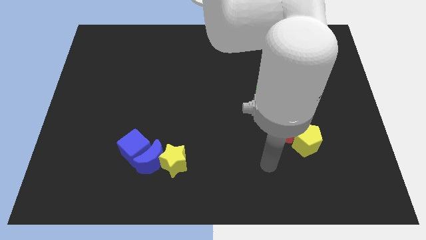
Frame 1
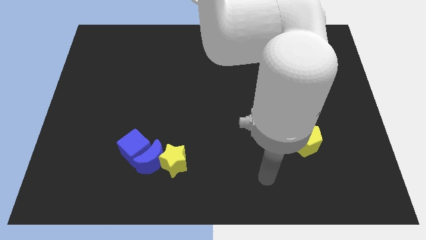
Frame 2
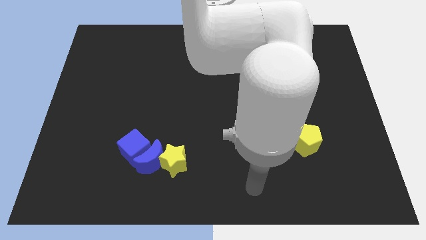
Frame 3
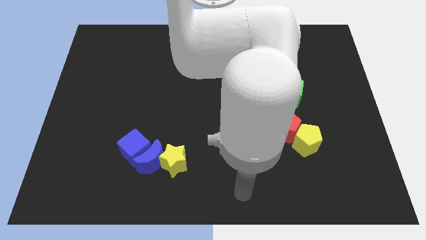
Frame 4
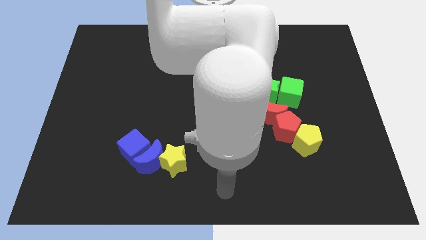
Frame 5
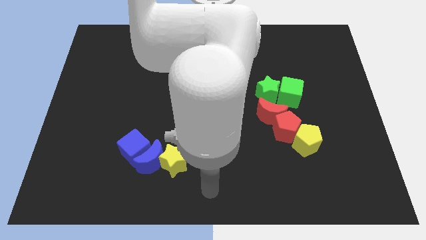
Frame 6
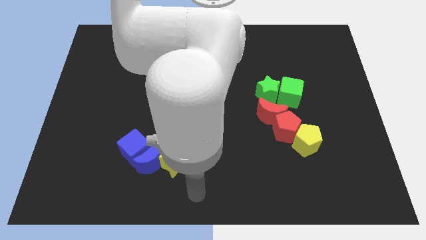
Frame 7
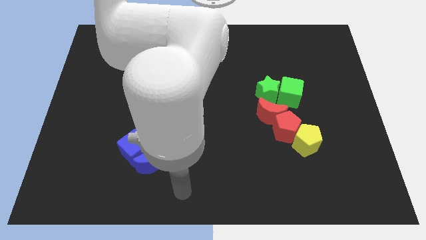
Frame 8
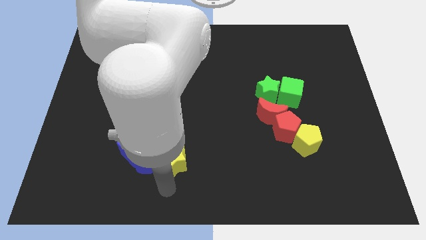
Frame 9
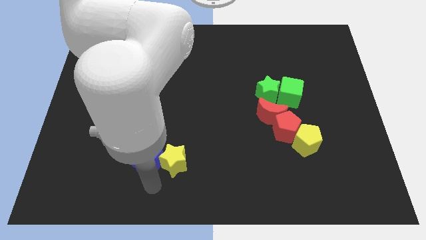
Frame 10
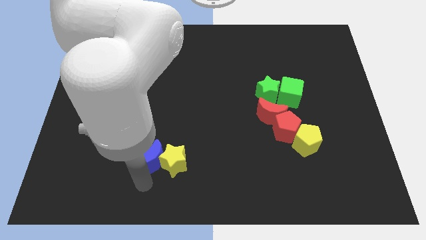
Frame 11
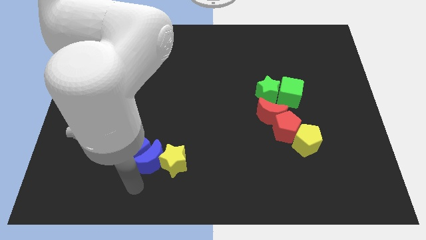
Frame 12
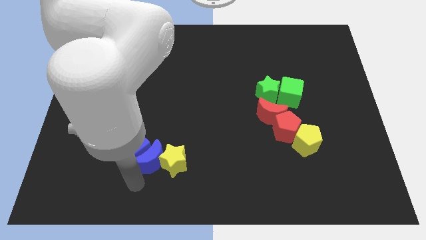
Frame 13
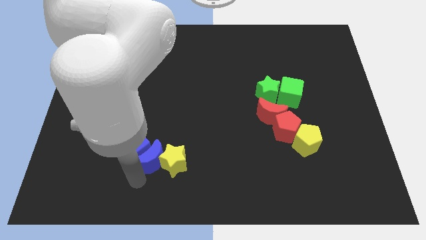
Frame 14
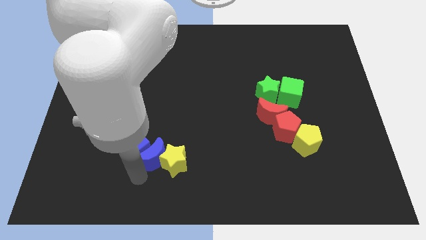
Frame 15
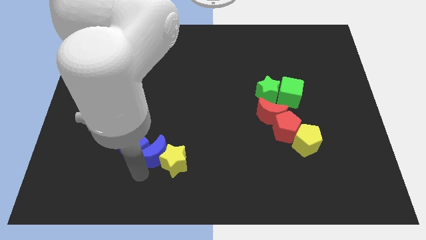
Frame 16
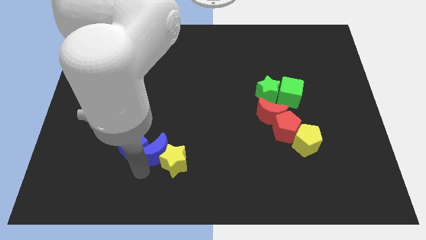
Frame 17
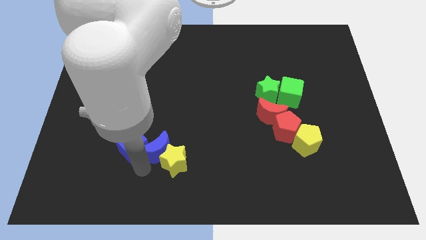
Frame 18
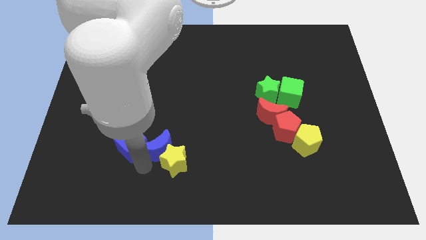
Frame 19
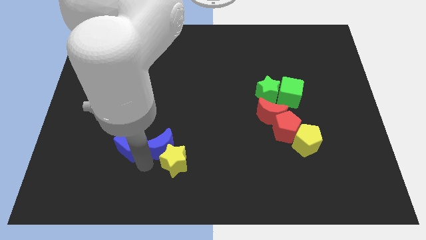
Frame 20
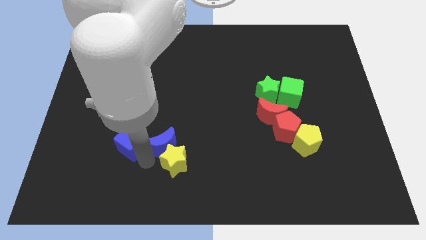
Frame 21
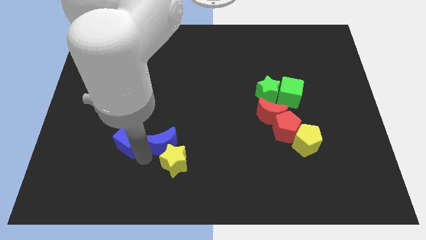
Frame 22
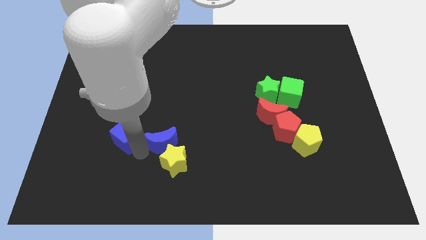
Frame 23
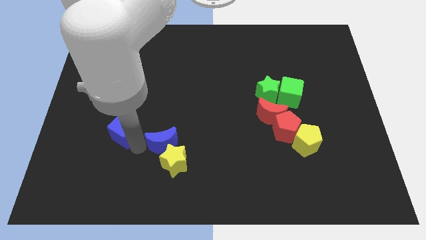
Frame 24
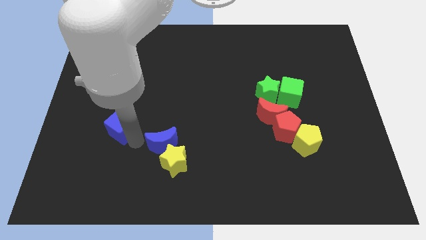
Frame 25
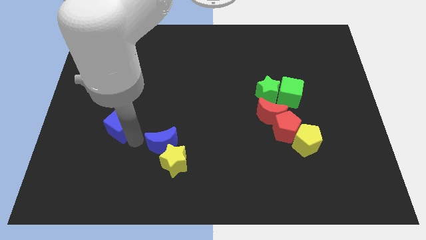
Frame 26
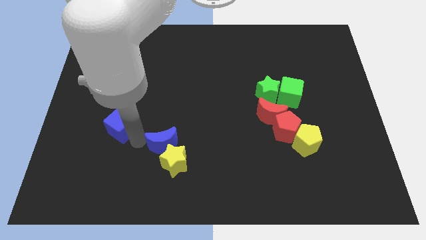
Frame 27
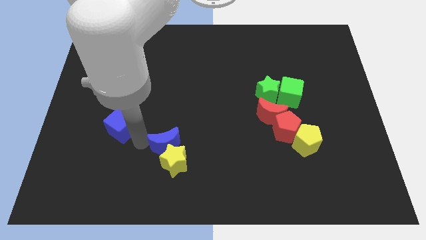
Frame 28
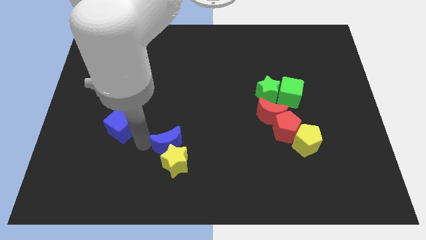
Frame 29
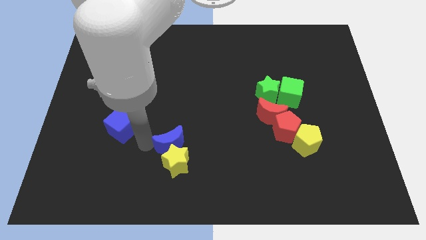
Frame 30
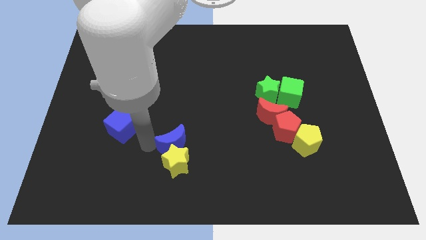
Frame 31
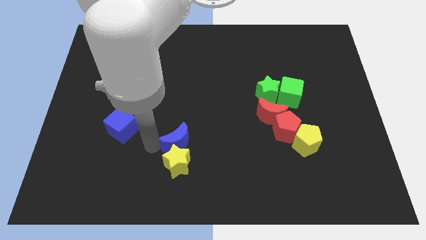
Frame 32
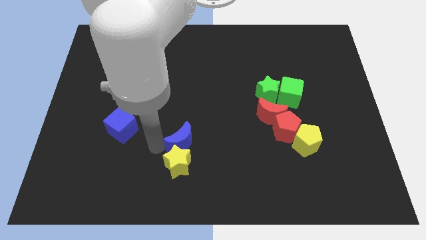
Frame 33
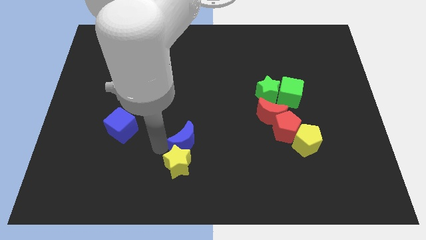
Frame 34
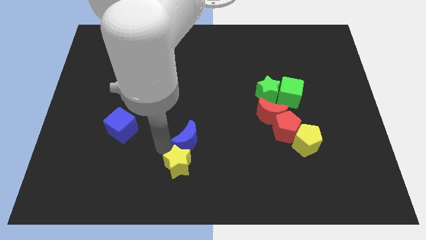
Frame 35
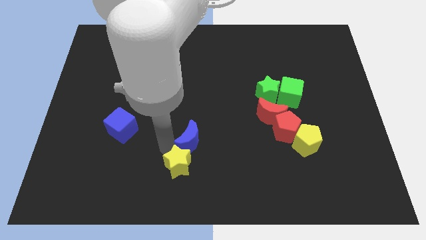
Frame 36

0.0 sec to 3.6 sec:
slightly slide the blue moon to the right

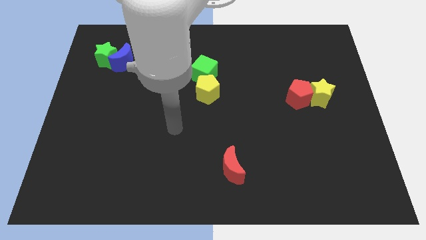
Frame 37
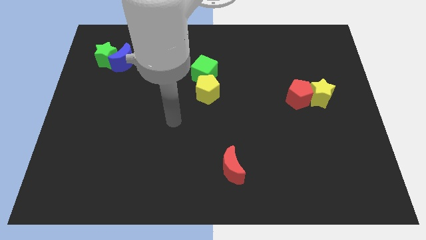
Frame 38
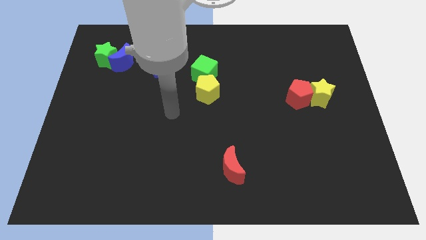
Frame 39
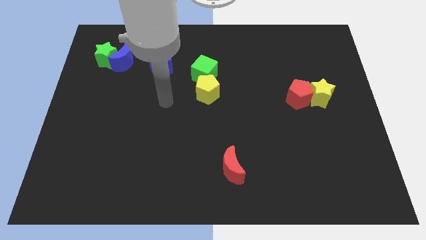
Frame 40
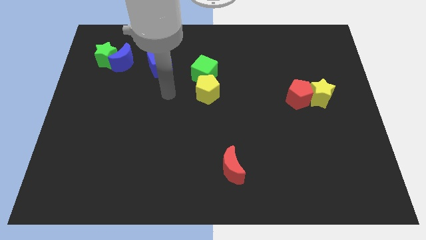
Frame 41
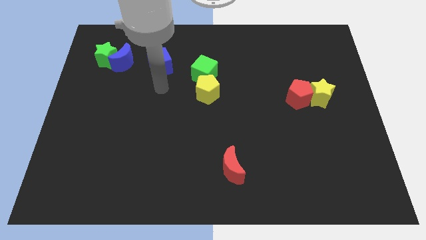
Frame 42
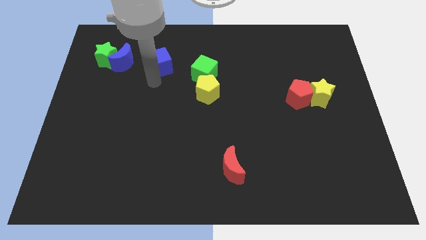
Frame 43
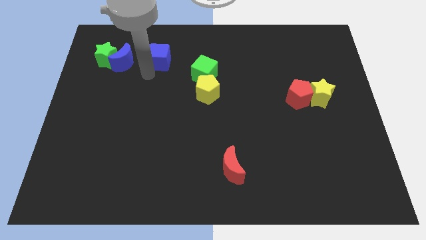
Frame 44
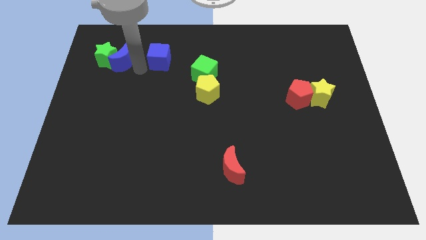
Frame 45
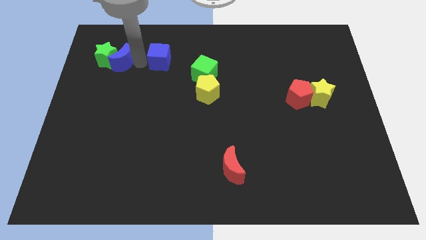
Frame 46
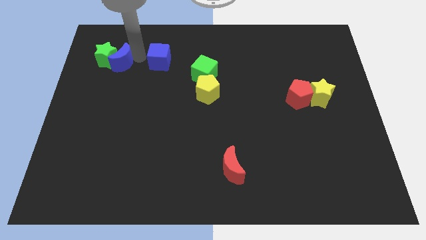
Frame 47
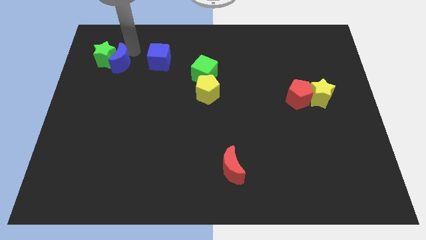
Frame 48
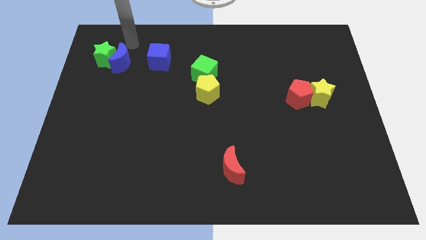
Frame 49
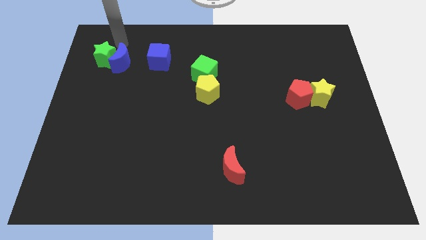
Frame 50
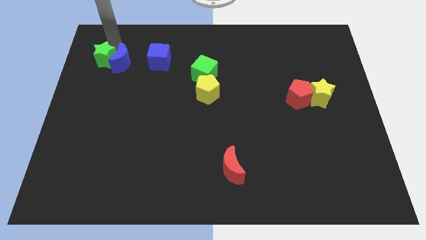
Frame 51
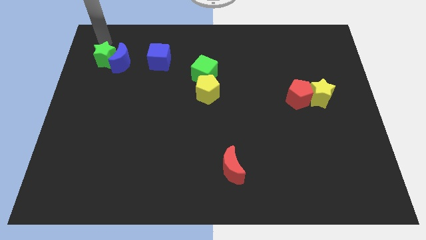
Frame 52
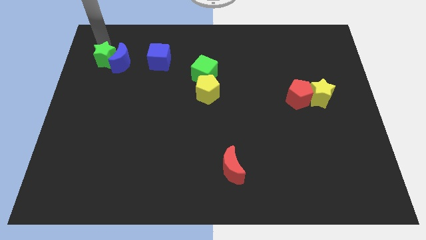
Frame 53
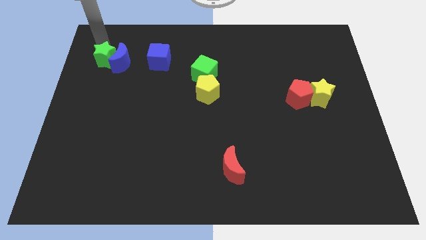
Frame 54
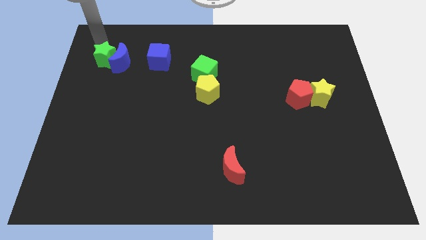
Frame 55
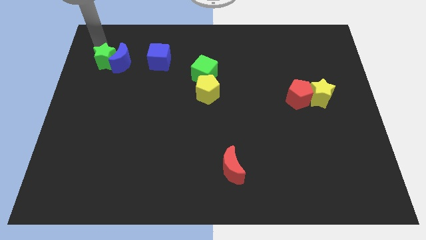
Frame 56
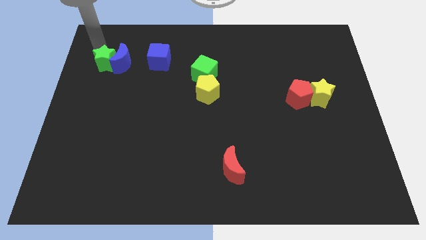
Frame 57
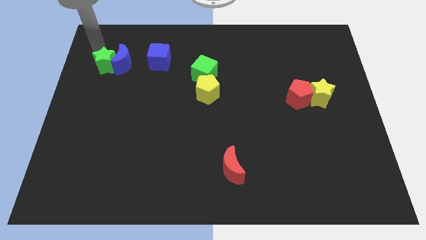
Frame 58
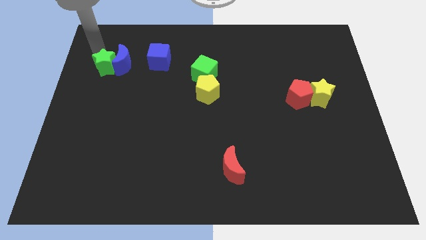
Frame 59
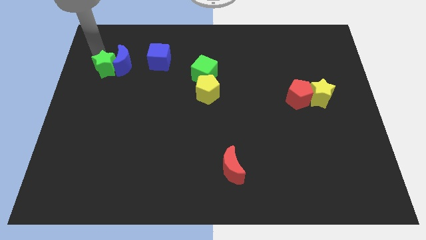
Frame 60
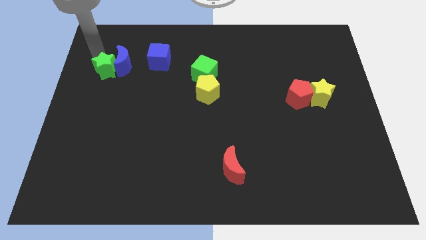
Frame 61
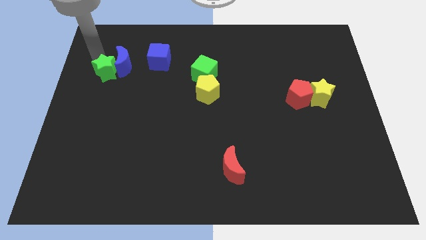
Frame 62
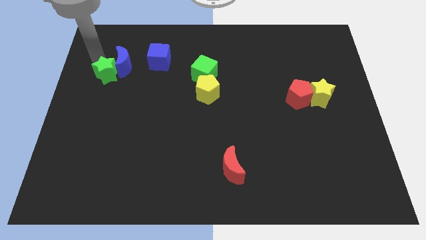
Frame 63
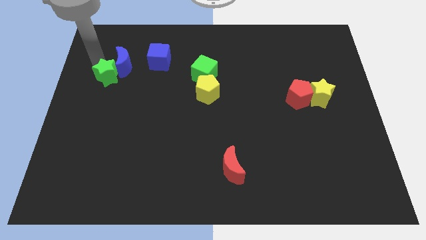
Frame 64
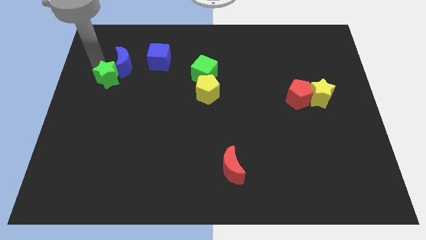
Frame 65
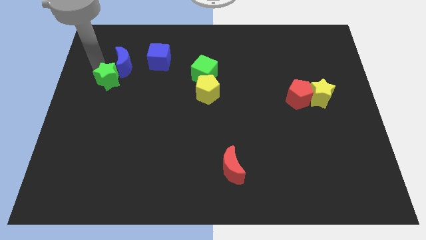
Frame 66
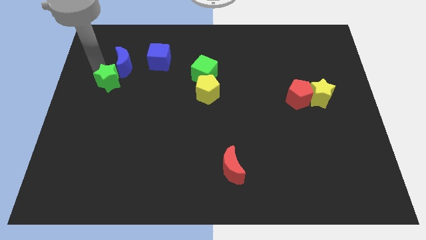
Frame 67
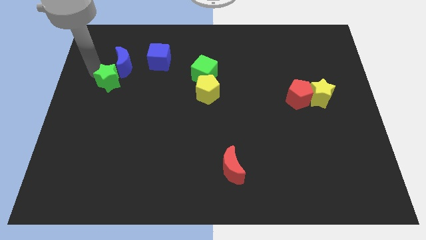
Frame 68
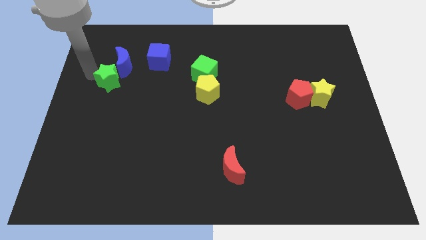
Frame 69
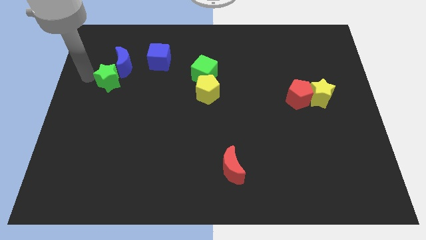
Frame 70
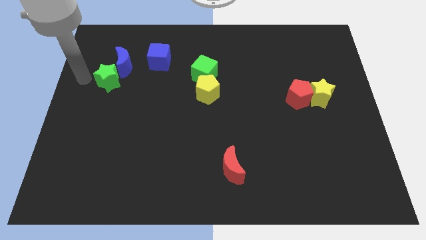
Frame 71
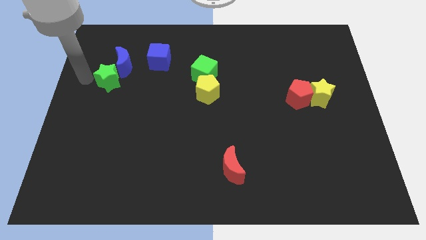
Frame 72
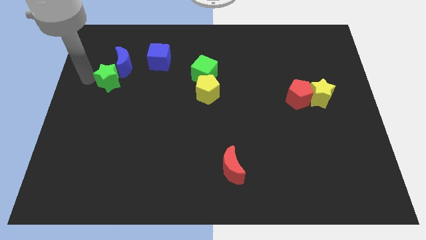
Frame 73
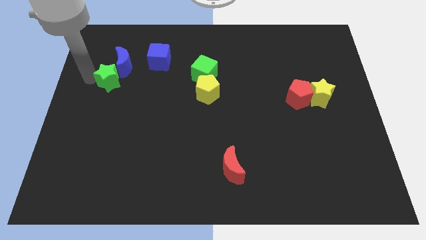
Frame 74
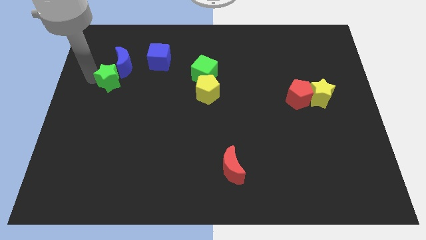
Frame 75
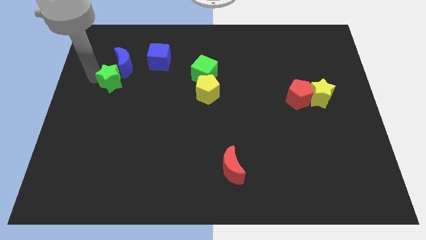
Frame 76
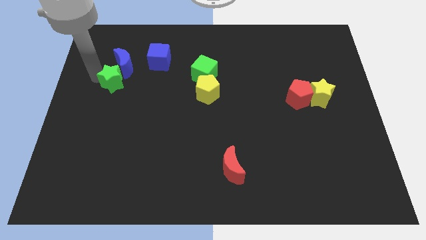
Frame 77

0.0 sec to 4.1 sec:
move the green star somewhat diagonally downwards and right

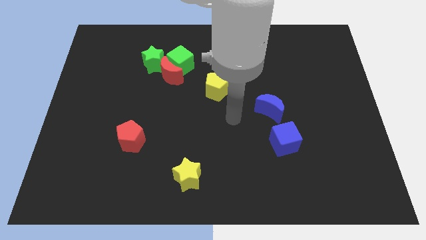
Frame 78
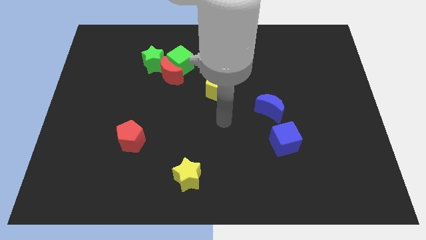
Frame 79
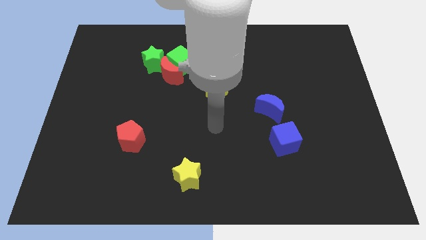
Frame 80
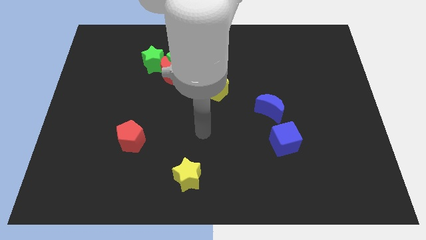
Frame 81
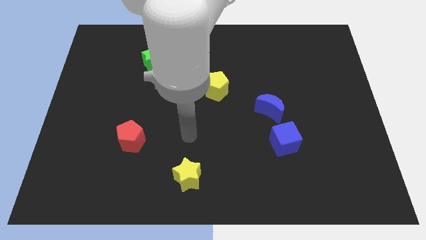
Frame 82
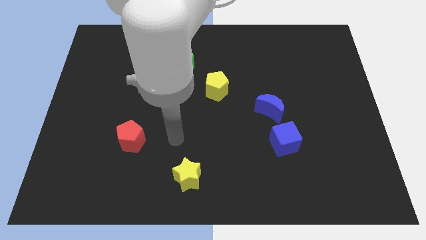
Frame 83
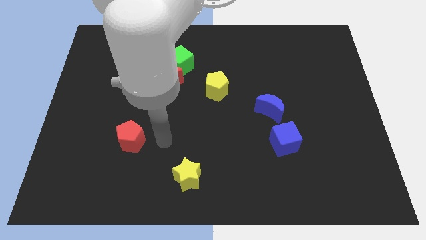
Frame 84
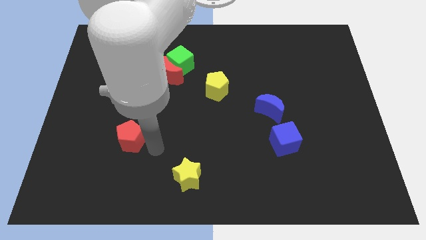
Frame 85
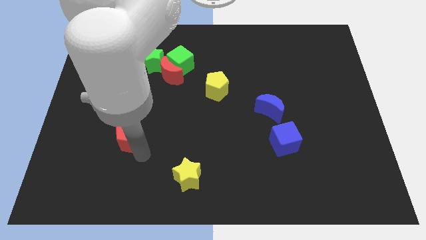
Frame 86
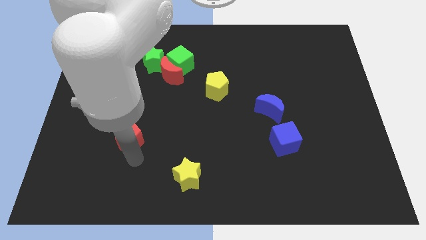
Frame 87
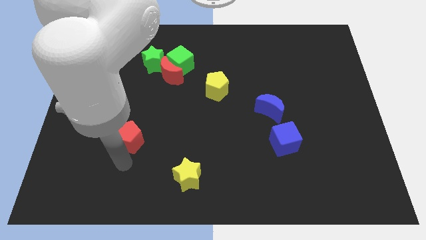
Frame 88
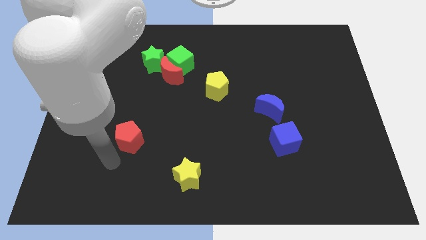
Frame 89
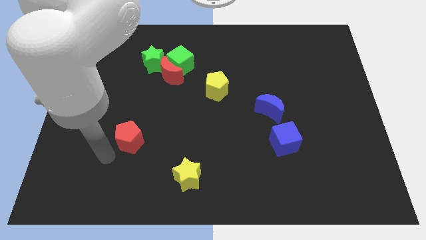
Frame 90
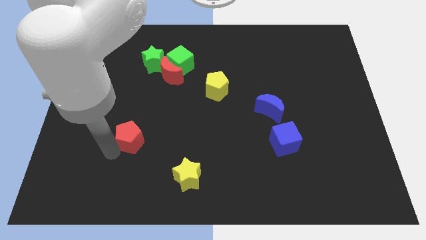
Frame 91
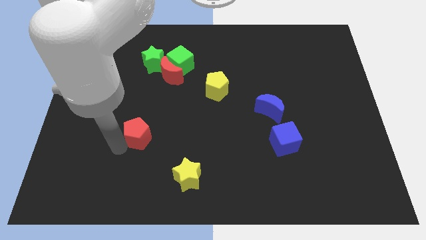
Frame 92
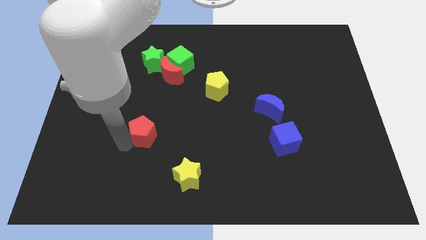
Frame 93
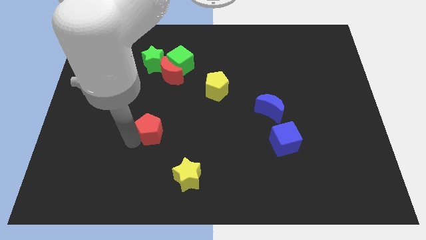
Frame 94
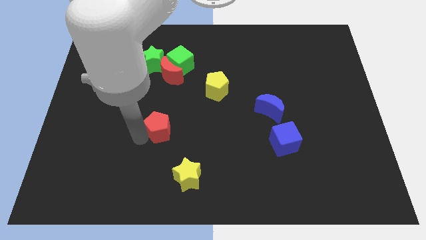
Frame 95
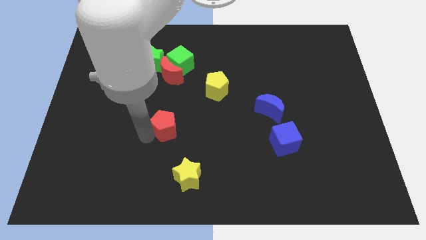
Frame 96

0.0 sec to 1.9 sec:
push the red pentagon up and to the right diagonally somewhat
